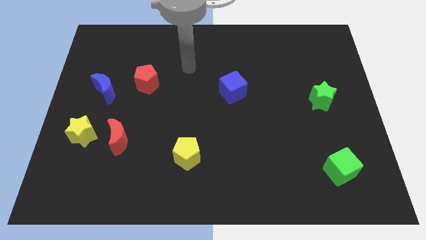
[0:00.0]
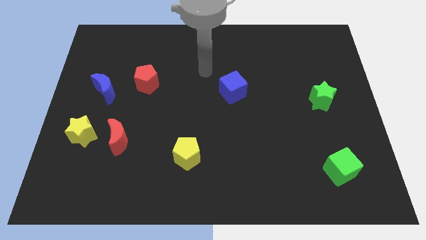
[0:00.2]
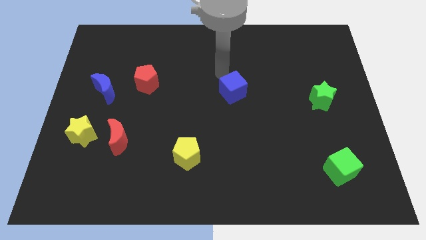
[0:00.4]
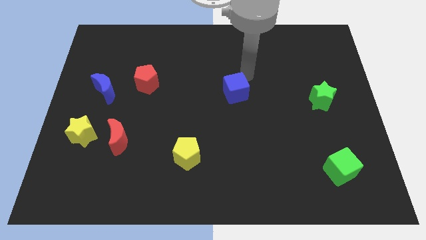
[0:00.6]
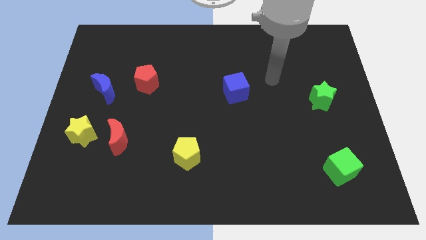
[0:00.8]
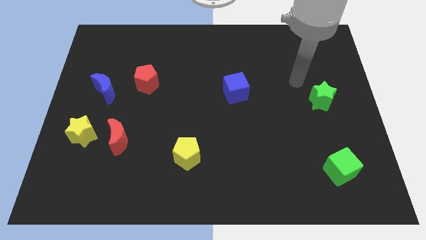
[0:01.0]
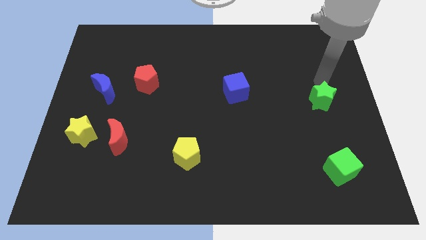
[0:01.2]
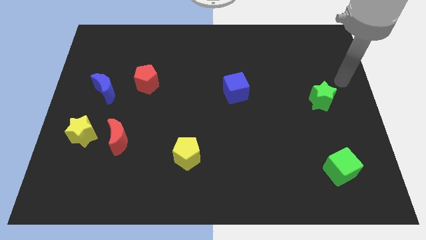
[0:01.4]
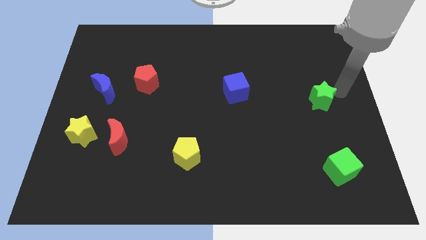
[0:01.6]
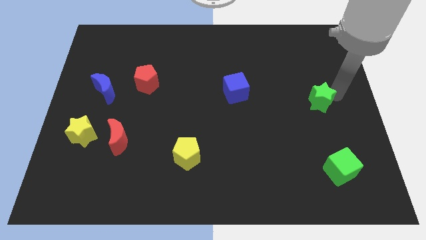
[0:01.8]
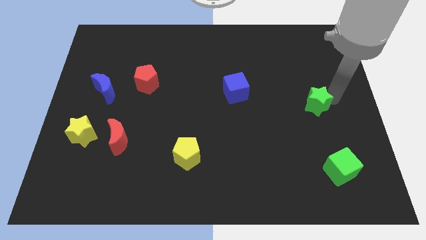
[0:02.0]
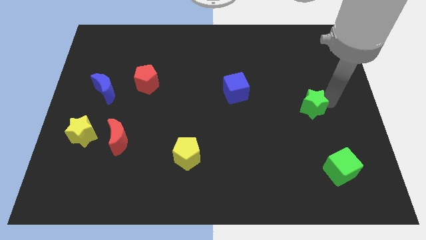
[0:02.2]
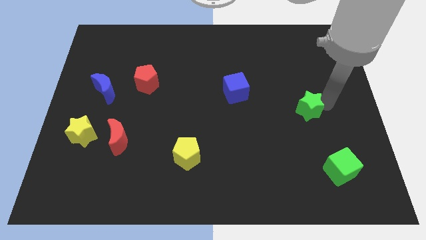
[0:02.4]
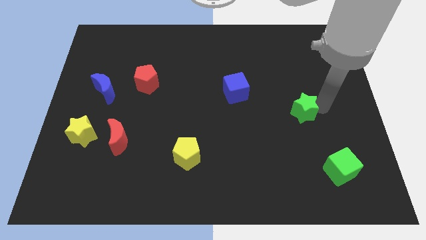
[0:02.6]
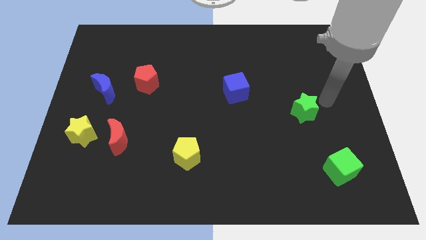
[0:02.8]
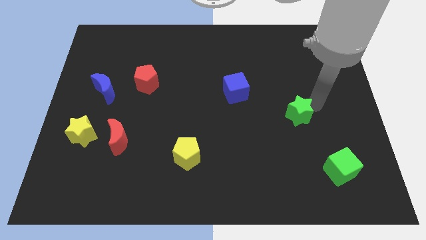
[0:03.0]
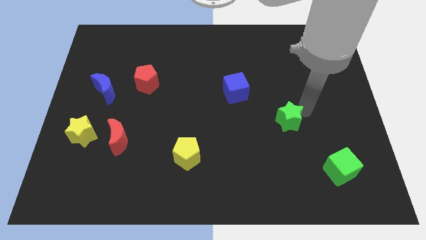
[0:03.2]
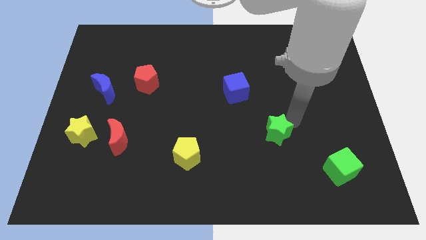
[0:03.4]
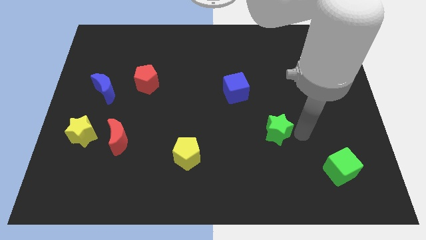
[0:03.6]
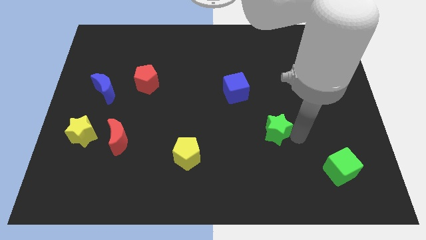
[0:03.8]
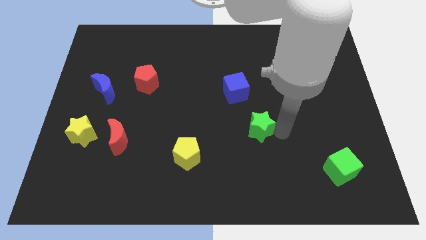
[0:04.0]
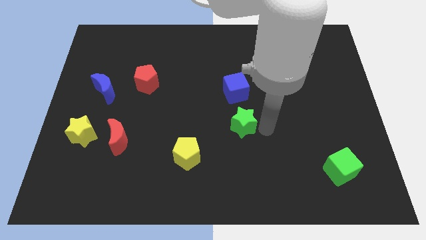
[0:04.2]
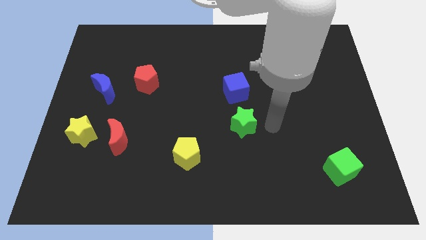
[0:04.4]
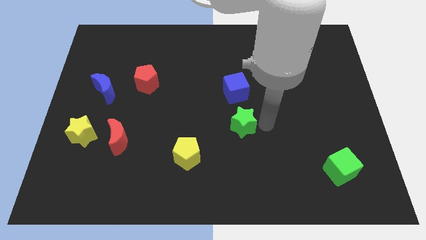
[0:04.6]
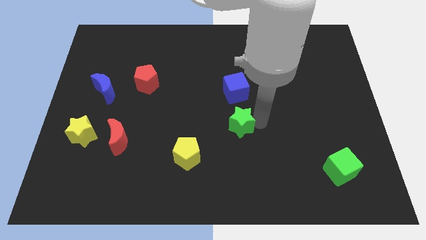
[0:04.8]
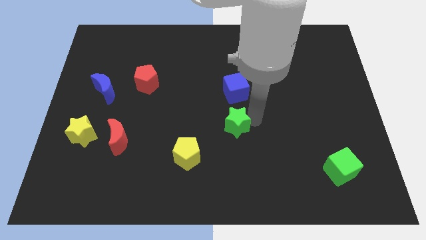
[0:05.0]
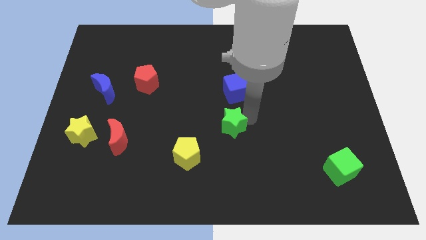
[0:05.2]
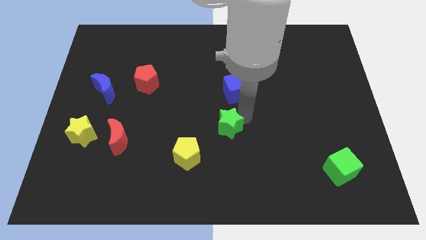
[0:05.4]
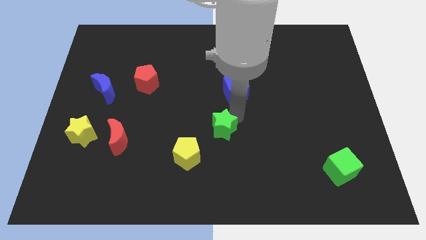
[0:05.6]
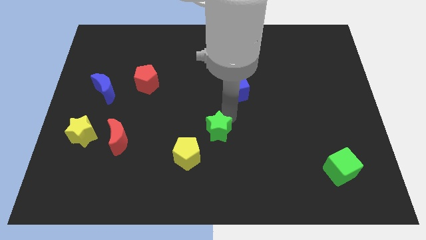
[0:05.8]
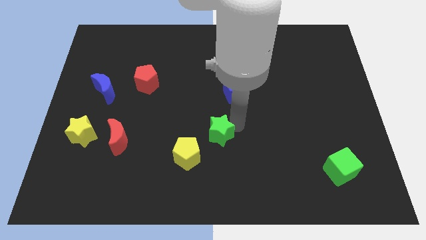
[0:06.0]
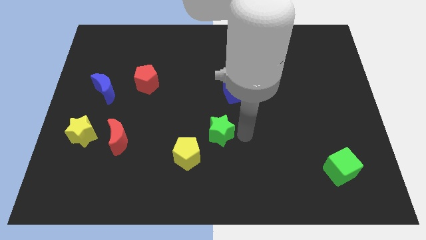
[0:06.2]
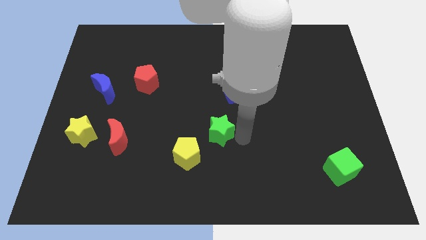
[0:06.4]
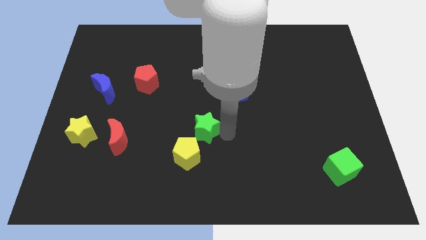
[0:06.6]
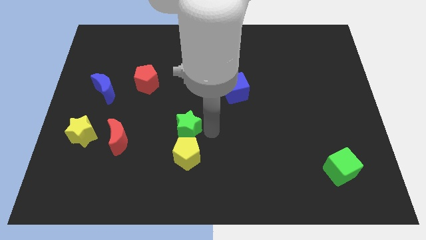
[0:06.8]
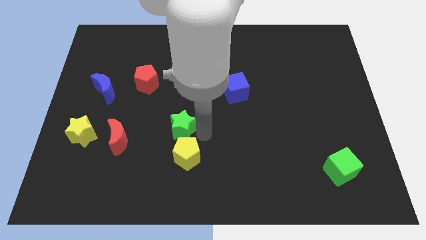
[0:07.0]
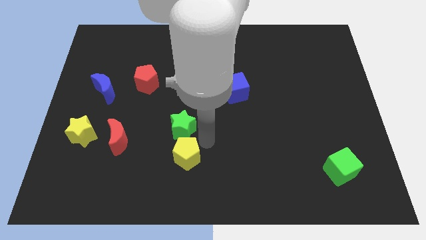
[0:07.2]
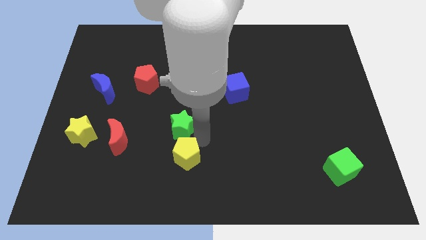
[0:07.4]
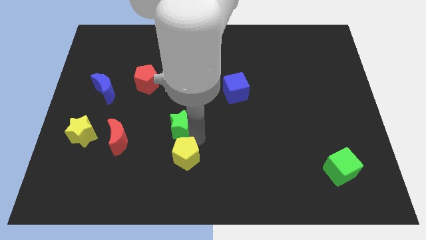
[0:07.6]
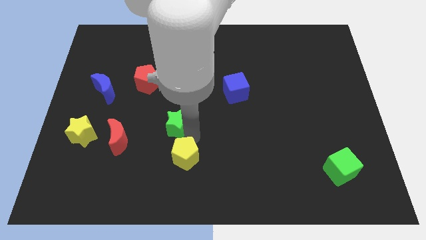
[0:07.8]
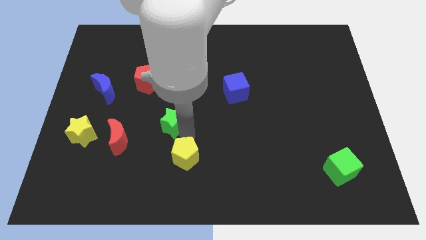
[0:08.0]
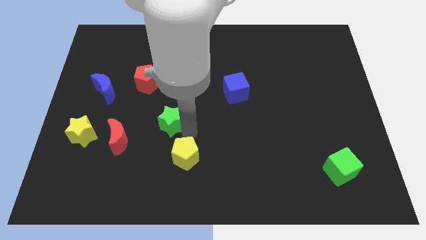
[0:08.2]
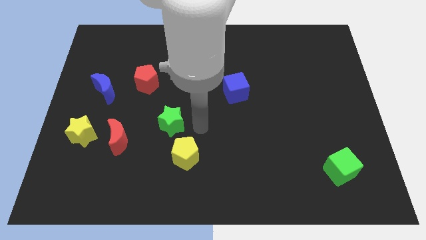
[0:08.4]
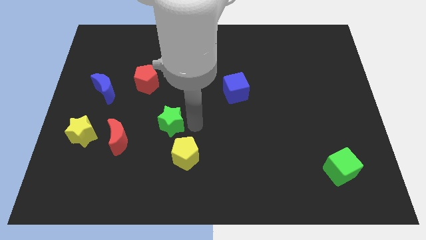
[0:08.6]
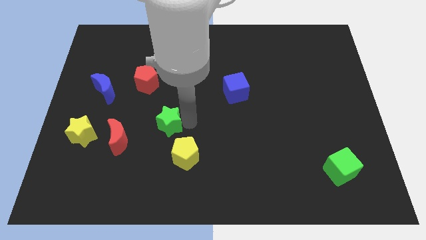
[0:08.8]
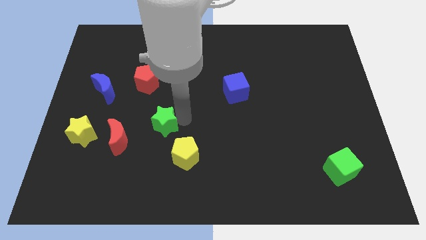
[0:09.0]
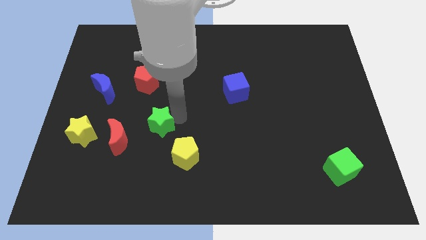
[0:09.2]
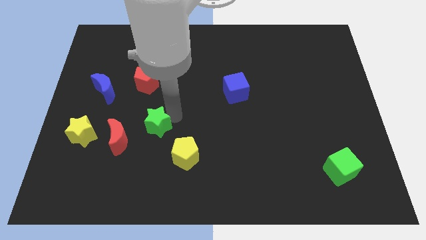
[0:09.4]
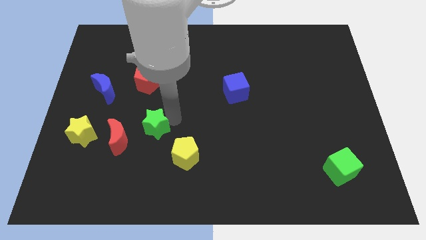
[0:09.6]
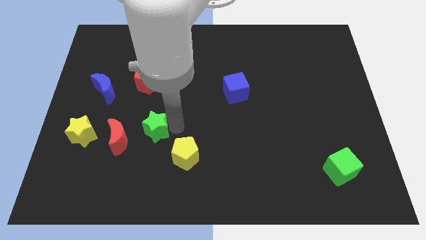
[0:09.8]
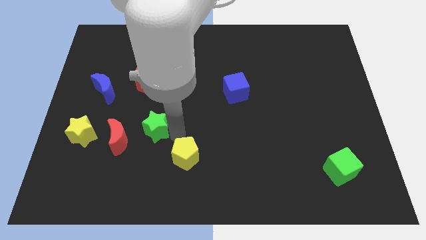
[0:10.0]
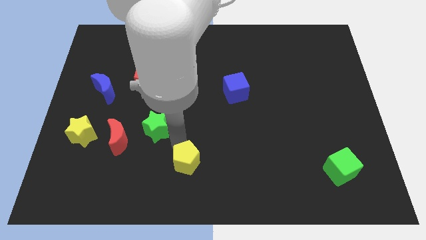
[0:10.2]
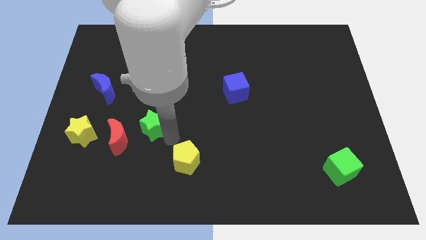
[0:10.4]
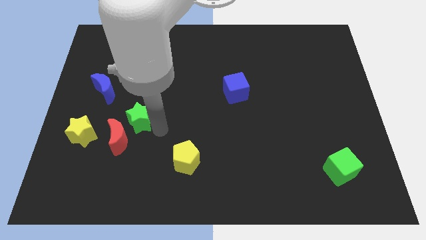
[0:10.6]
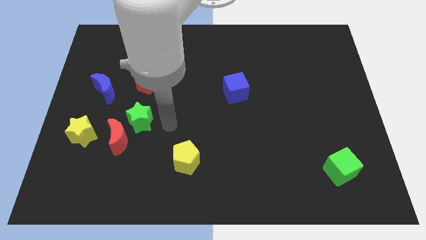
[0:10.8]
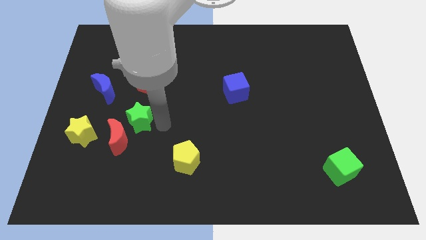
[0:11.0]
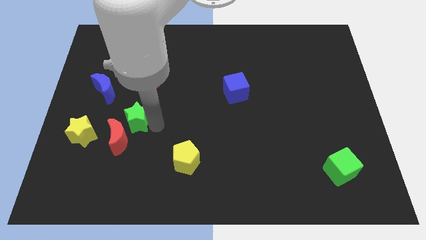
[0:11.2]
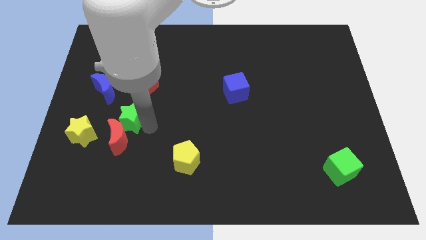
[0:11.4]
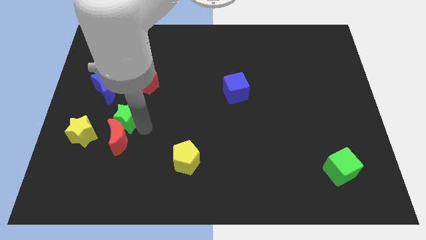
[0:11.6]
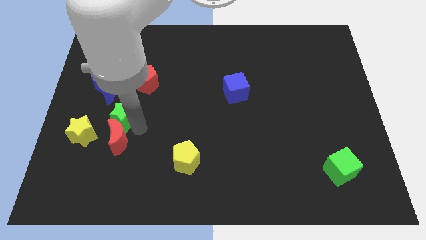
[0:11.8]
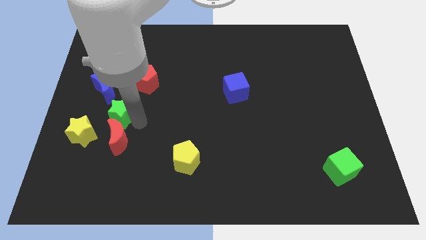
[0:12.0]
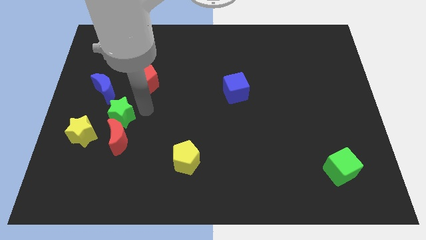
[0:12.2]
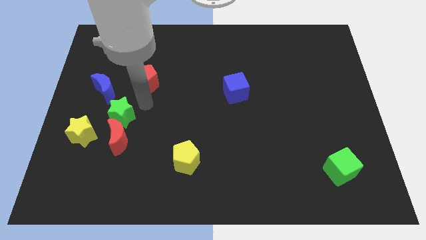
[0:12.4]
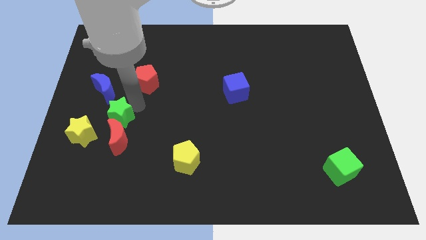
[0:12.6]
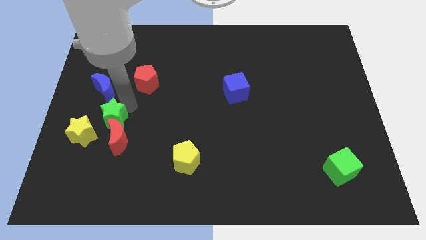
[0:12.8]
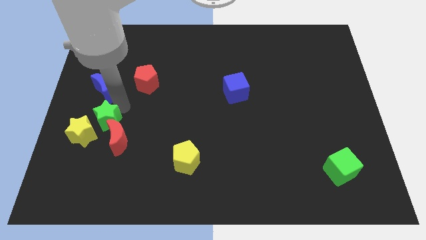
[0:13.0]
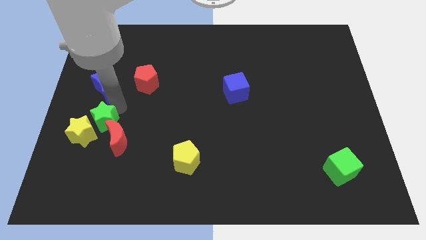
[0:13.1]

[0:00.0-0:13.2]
move the green star close to the yellow star
